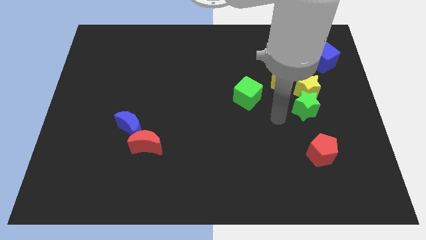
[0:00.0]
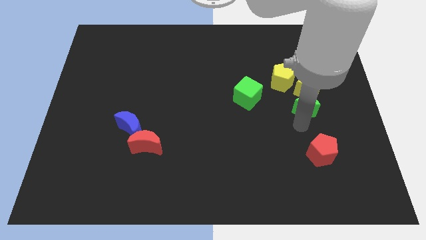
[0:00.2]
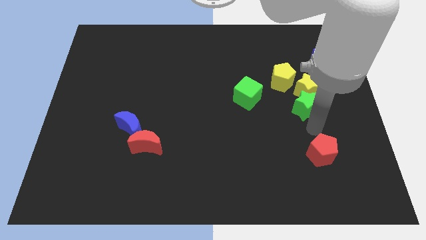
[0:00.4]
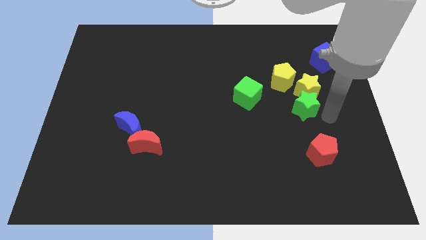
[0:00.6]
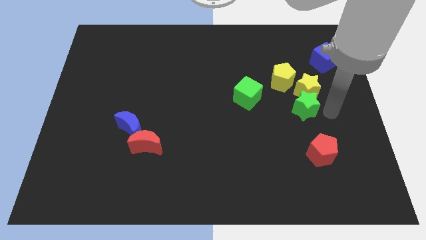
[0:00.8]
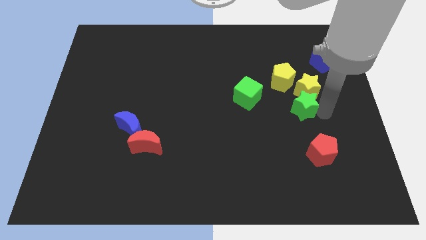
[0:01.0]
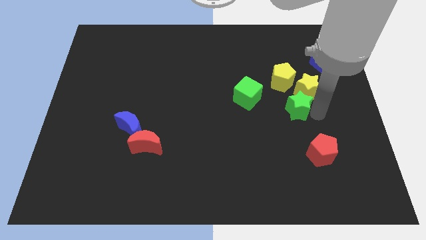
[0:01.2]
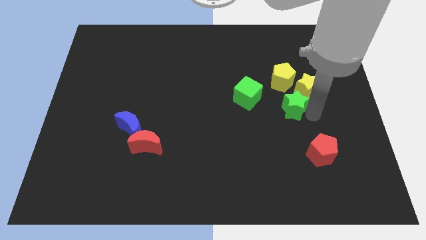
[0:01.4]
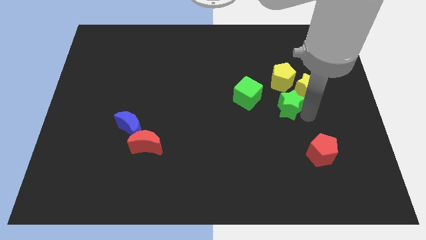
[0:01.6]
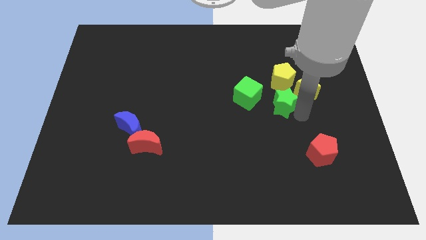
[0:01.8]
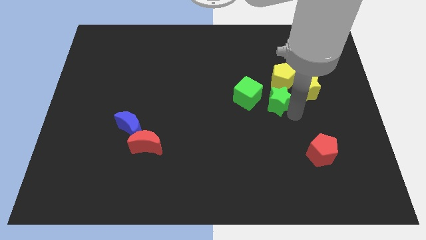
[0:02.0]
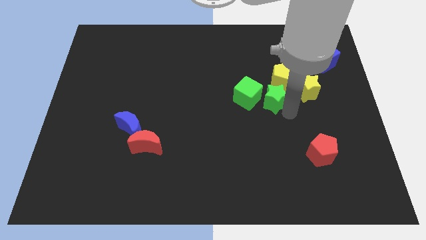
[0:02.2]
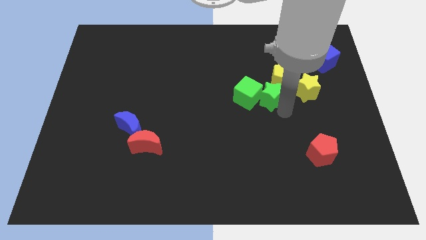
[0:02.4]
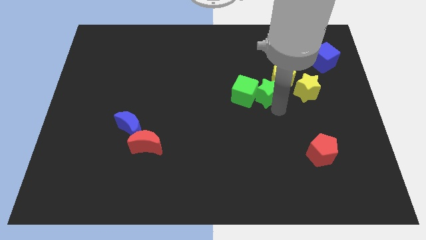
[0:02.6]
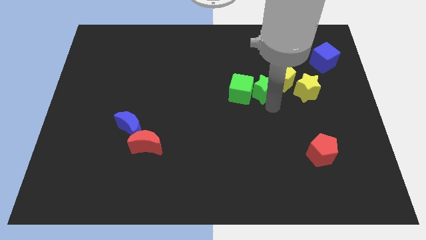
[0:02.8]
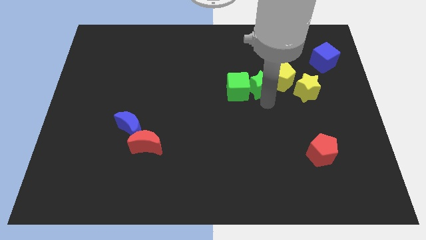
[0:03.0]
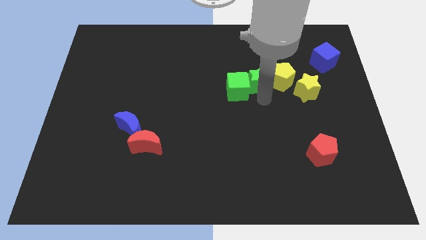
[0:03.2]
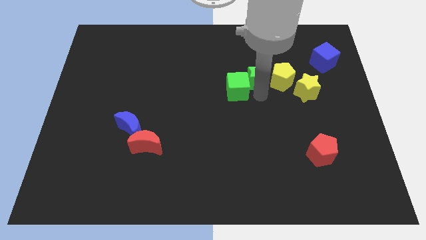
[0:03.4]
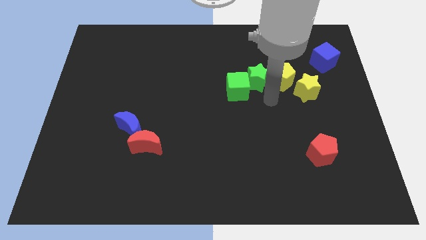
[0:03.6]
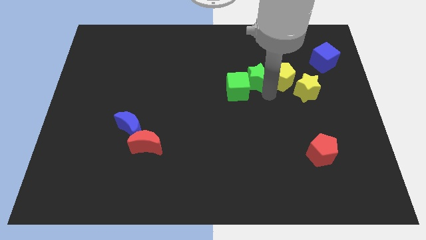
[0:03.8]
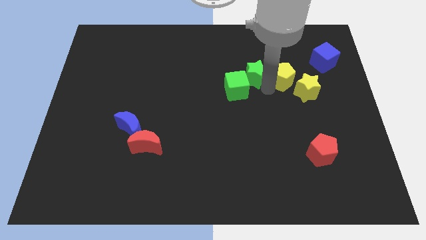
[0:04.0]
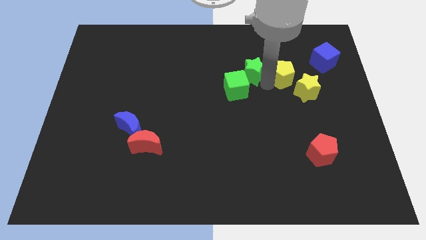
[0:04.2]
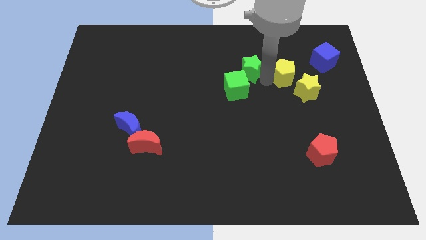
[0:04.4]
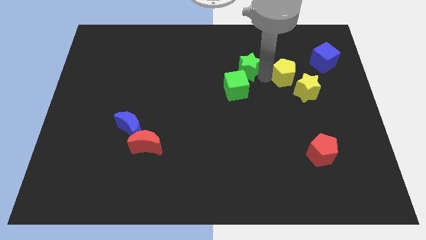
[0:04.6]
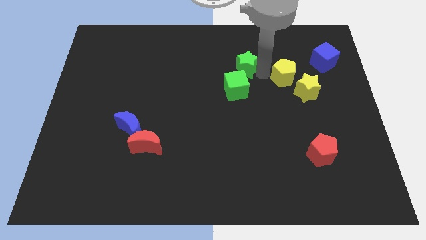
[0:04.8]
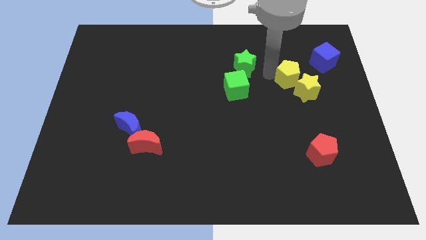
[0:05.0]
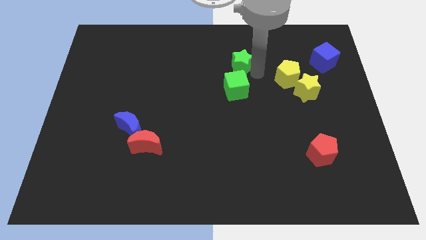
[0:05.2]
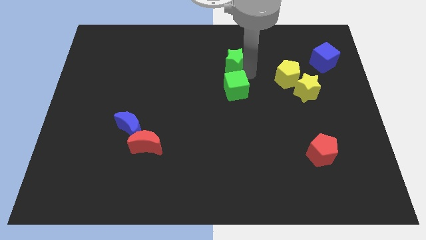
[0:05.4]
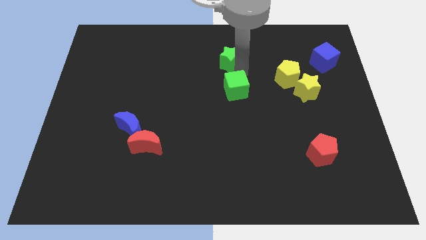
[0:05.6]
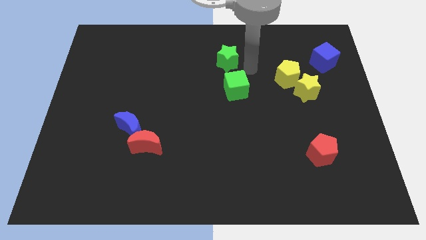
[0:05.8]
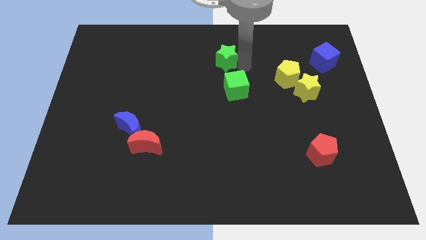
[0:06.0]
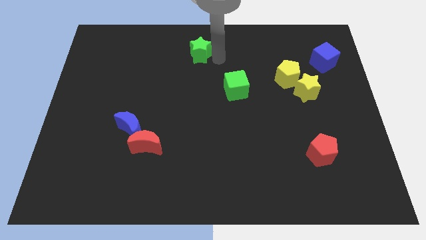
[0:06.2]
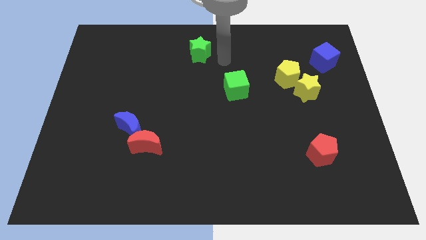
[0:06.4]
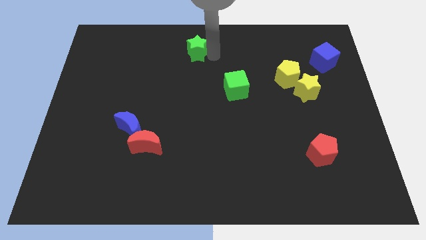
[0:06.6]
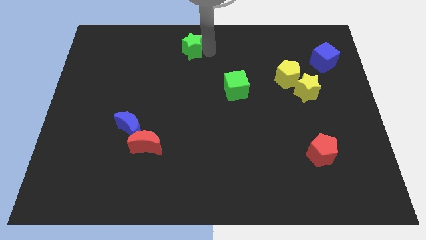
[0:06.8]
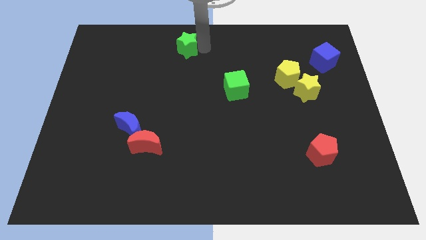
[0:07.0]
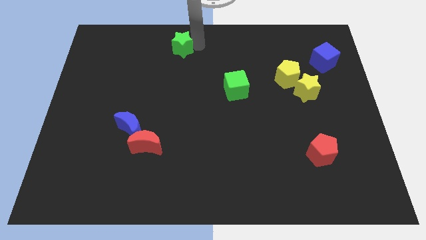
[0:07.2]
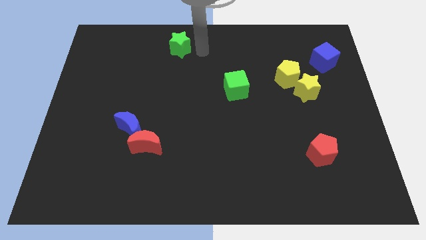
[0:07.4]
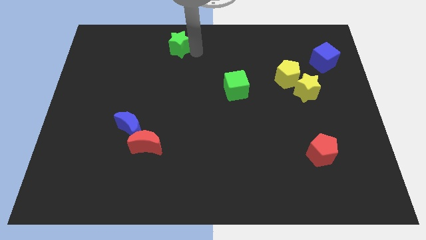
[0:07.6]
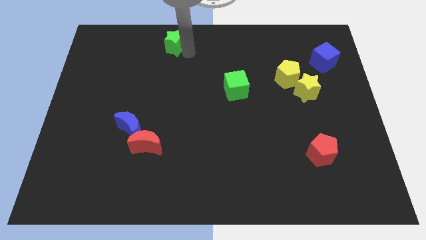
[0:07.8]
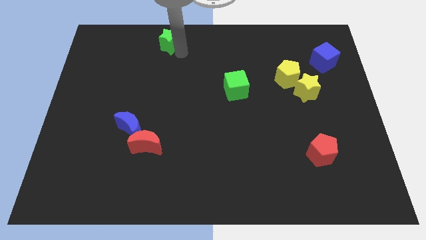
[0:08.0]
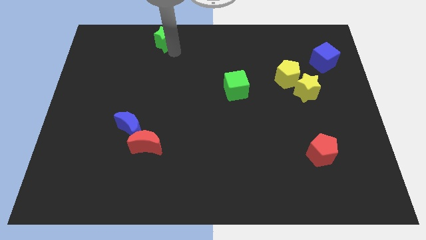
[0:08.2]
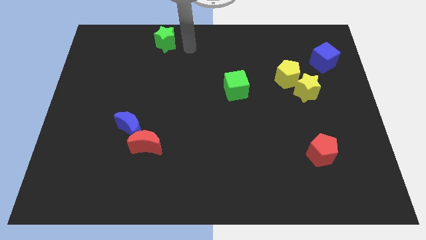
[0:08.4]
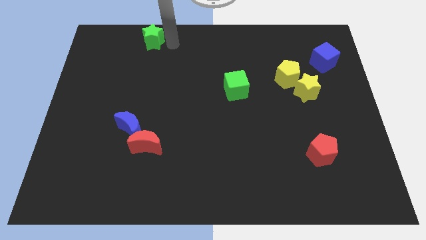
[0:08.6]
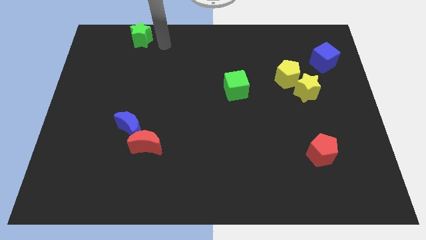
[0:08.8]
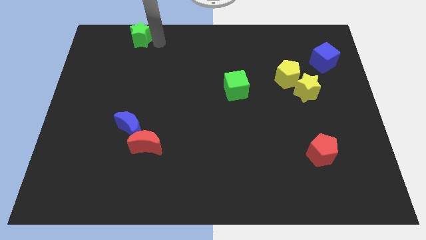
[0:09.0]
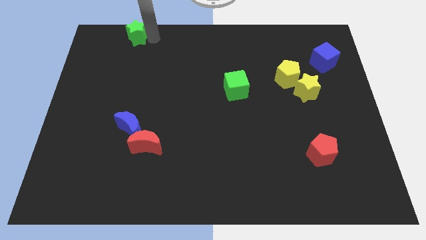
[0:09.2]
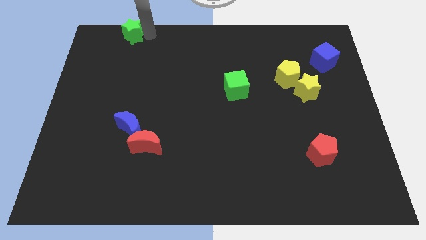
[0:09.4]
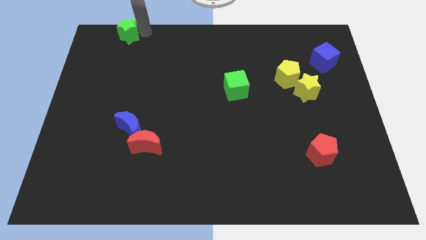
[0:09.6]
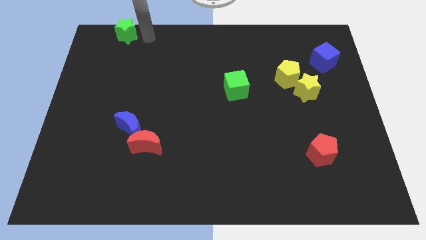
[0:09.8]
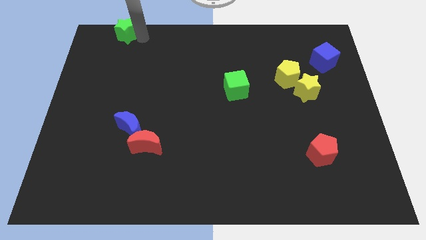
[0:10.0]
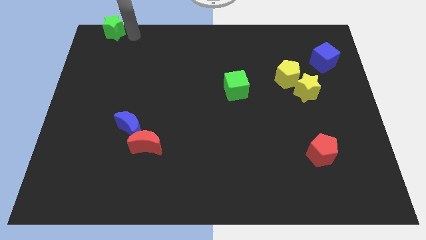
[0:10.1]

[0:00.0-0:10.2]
put the green star to the top left of the board

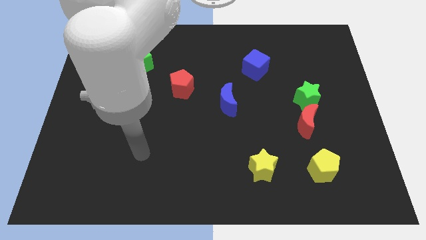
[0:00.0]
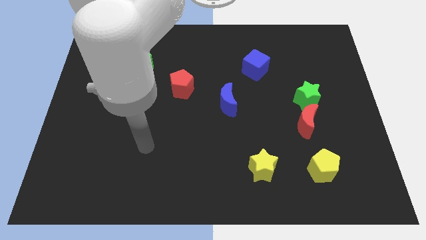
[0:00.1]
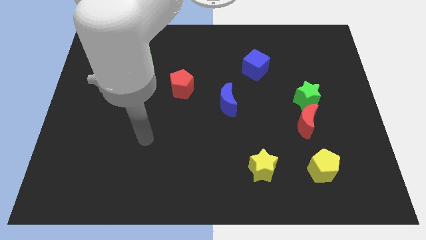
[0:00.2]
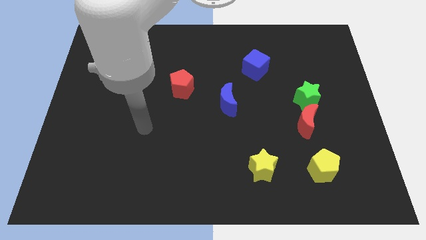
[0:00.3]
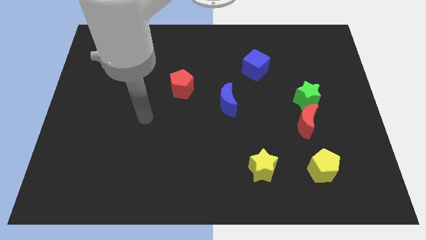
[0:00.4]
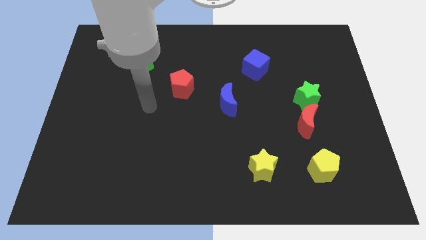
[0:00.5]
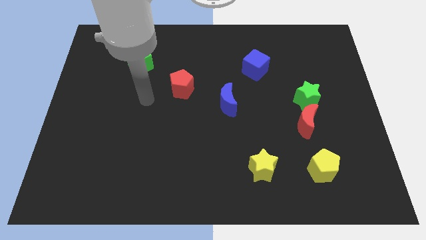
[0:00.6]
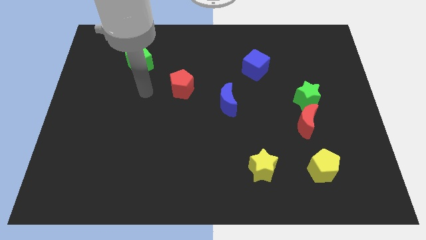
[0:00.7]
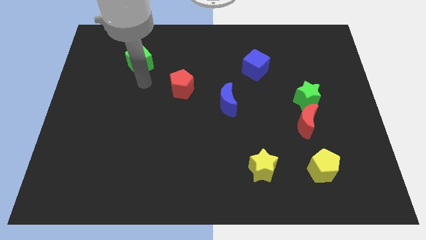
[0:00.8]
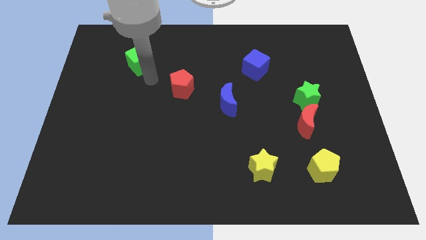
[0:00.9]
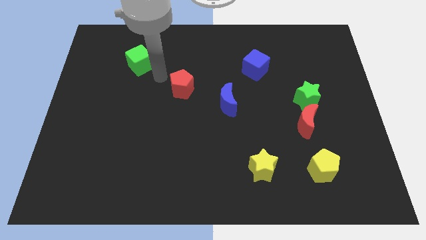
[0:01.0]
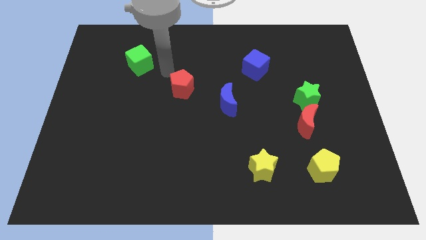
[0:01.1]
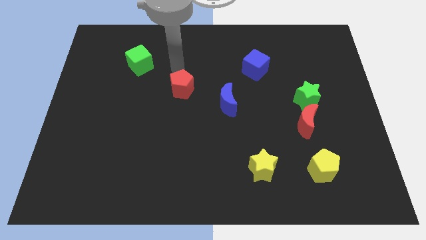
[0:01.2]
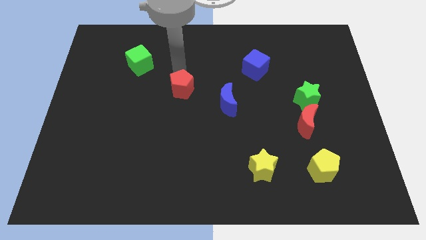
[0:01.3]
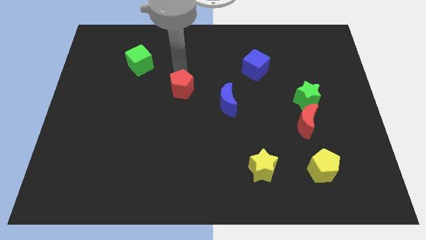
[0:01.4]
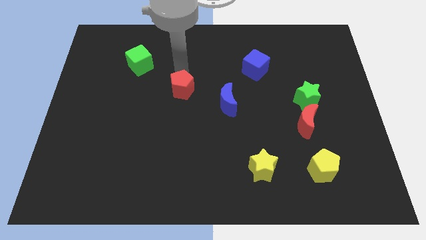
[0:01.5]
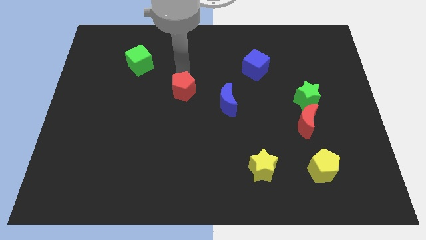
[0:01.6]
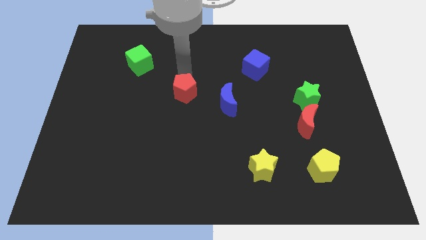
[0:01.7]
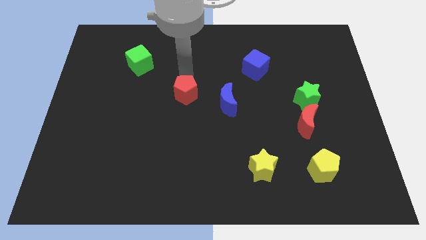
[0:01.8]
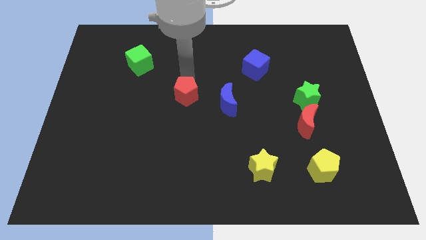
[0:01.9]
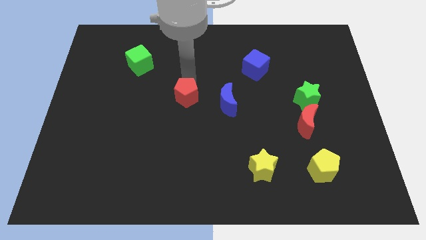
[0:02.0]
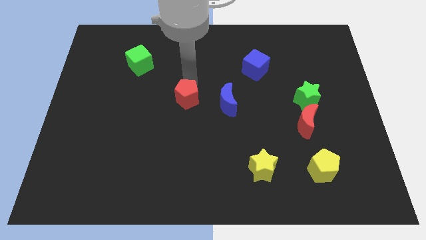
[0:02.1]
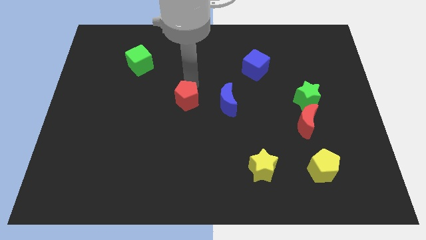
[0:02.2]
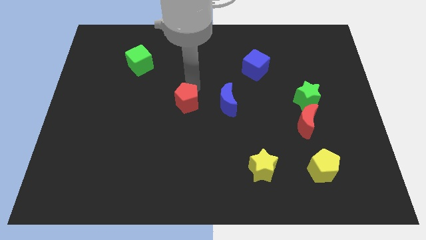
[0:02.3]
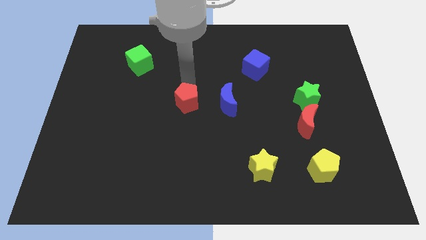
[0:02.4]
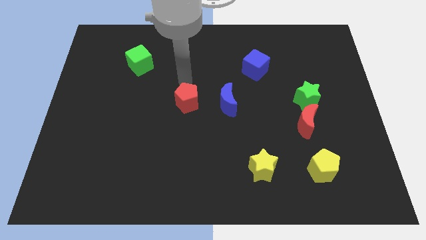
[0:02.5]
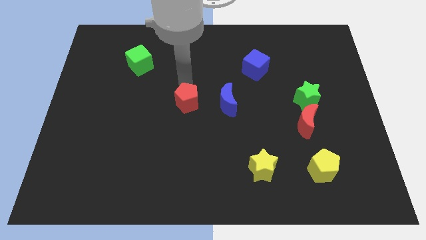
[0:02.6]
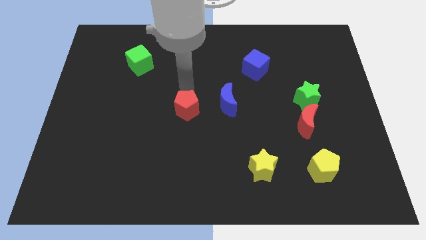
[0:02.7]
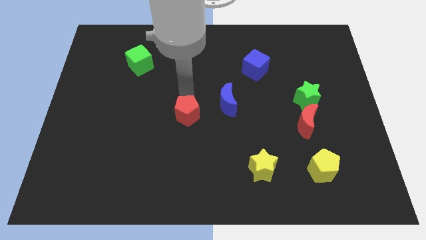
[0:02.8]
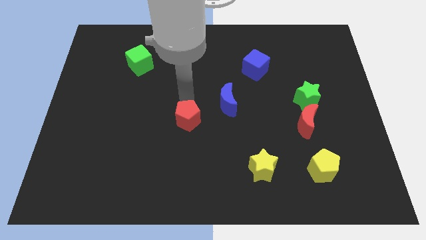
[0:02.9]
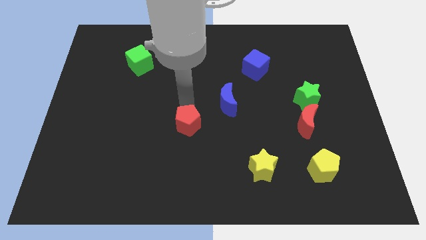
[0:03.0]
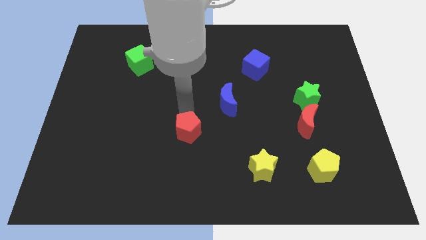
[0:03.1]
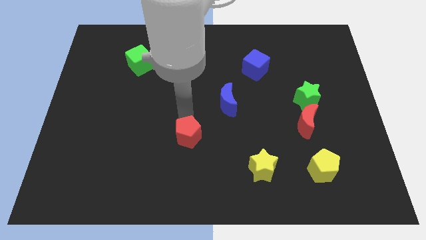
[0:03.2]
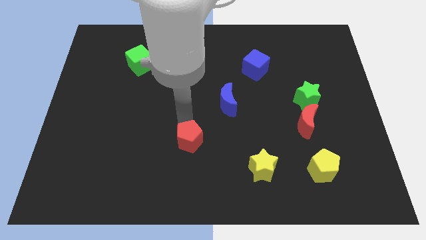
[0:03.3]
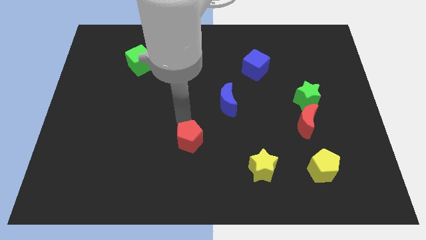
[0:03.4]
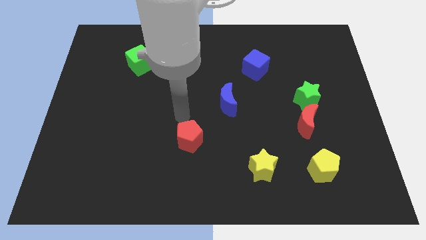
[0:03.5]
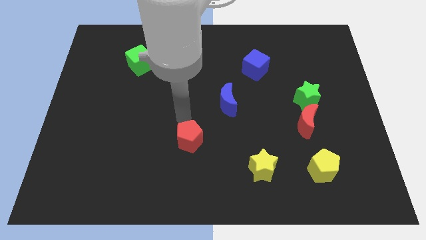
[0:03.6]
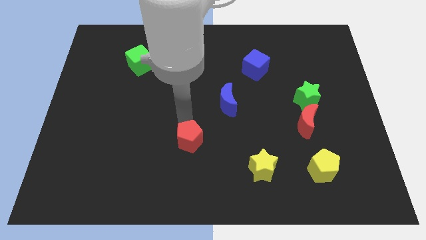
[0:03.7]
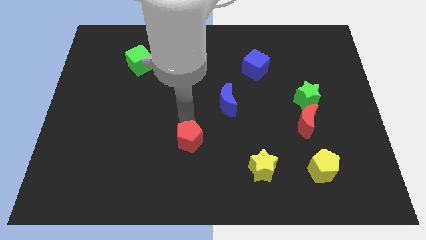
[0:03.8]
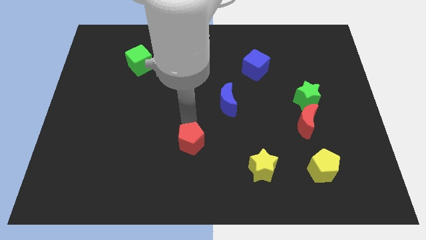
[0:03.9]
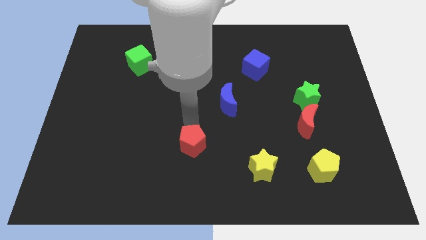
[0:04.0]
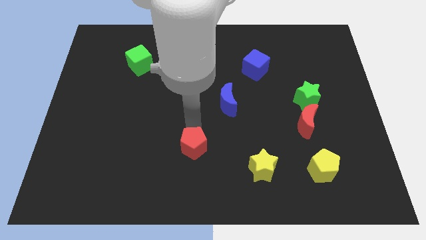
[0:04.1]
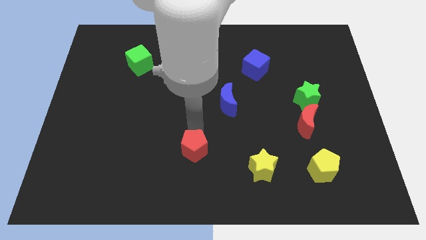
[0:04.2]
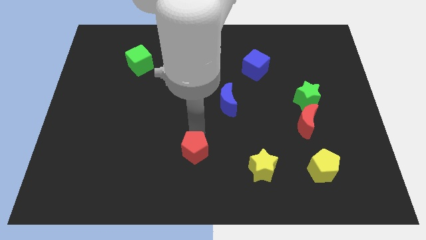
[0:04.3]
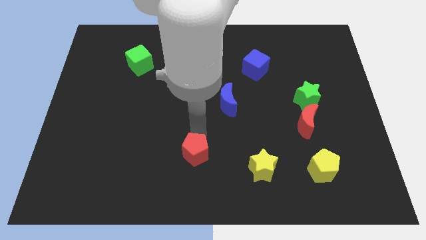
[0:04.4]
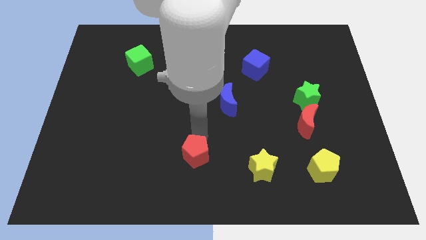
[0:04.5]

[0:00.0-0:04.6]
push the red pentagon to the bottom side
